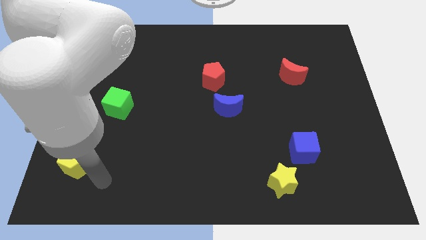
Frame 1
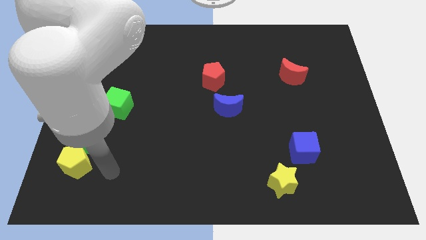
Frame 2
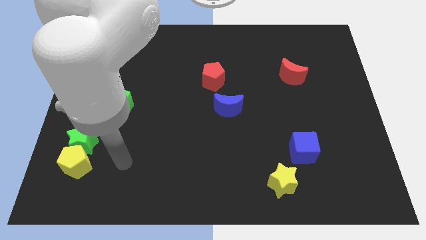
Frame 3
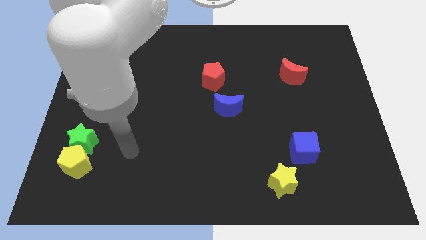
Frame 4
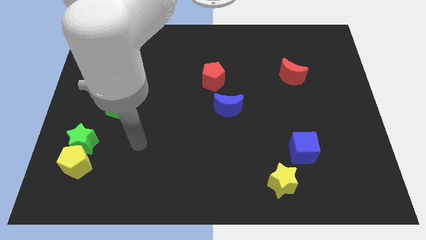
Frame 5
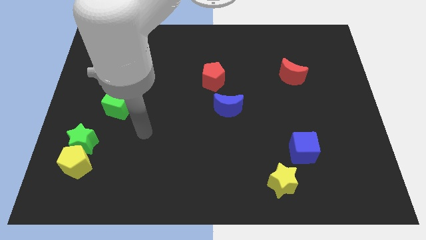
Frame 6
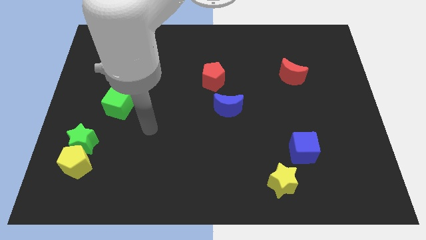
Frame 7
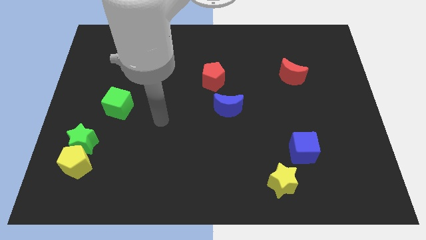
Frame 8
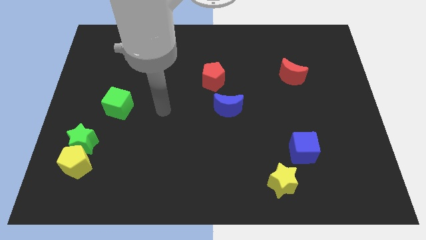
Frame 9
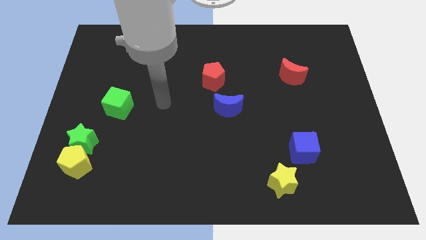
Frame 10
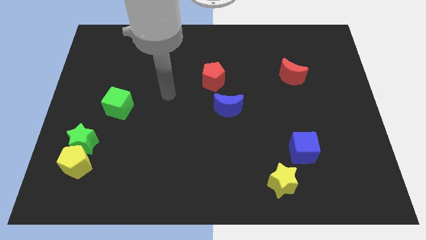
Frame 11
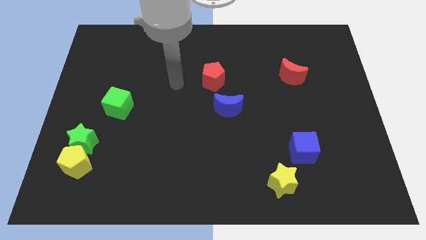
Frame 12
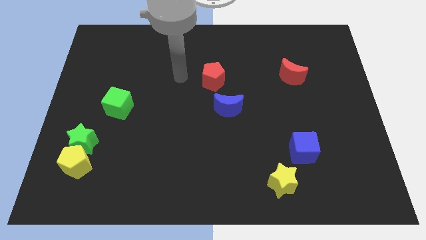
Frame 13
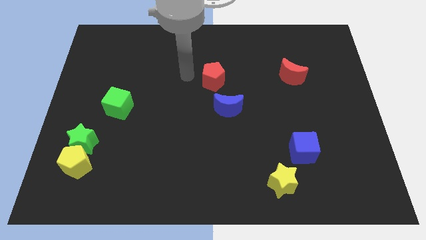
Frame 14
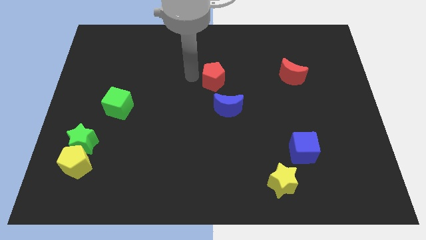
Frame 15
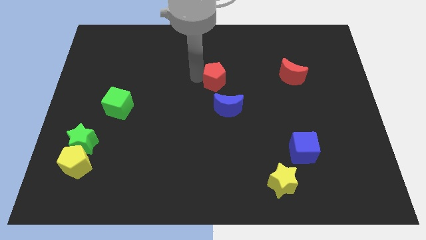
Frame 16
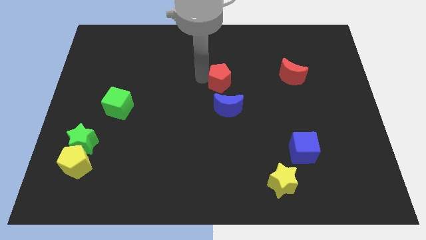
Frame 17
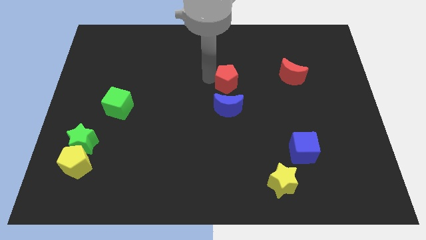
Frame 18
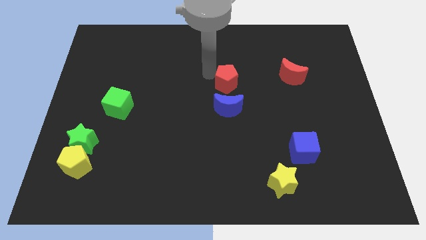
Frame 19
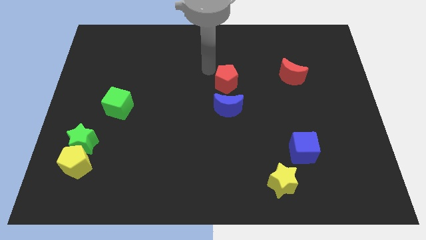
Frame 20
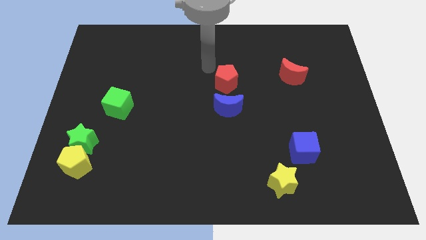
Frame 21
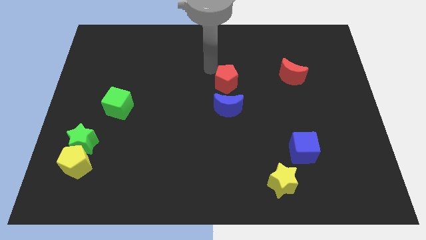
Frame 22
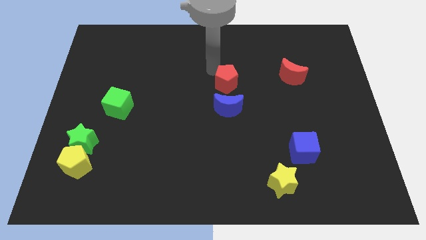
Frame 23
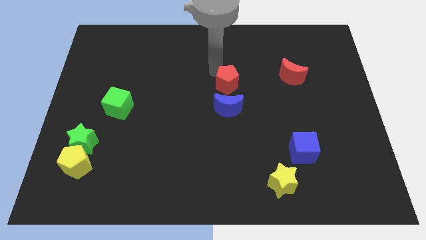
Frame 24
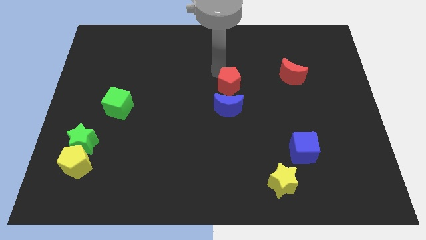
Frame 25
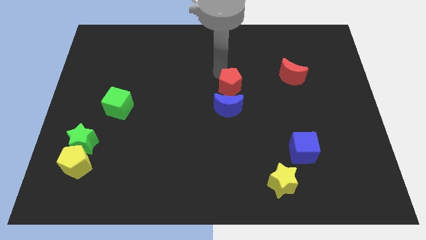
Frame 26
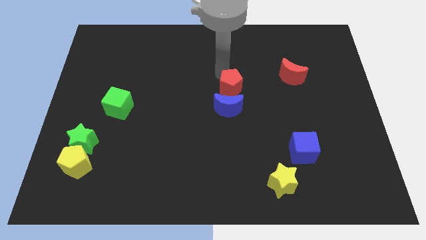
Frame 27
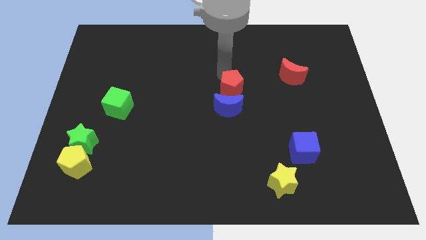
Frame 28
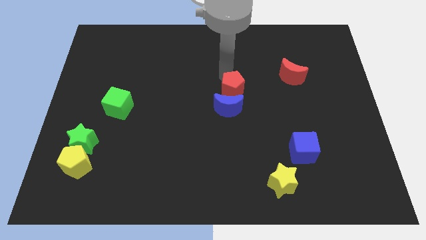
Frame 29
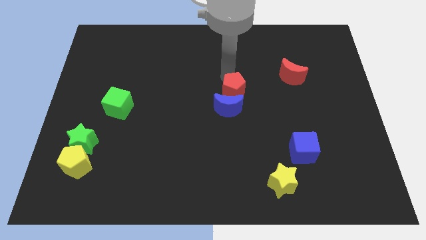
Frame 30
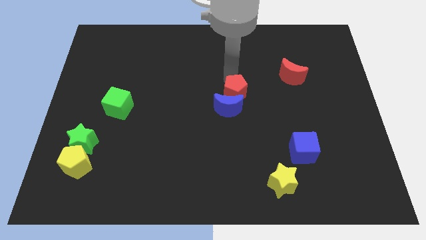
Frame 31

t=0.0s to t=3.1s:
slightly move the red pentagon diagonally downwards and right

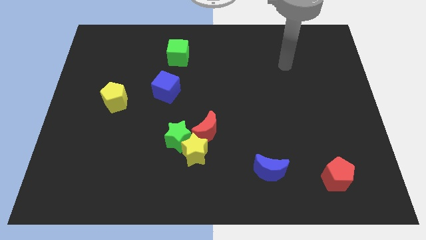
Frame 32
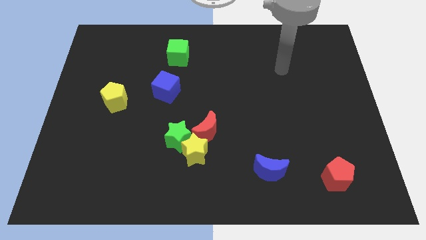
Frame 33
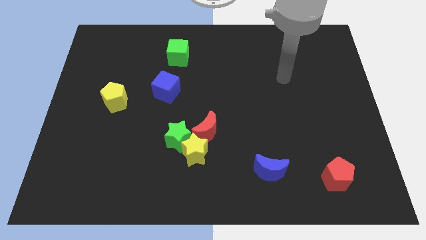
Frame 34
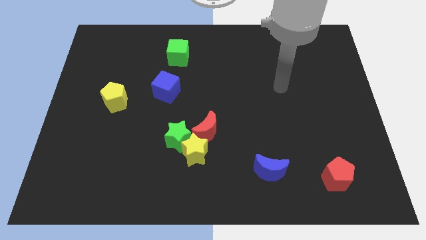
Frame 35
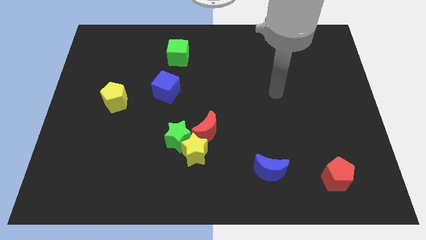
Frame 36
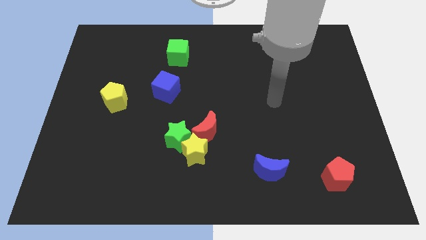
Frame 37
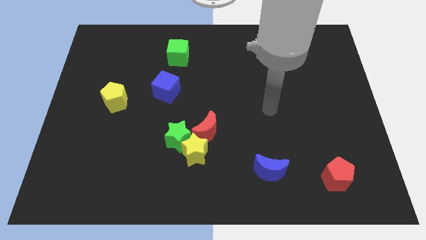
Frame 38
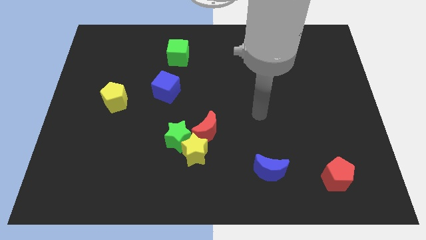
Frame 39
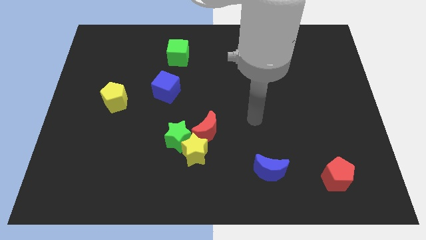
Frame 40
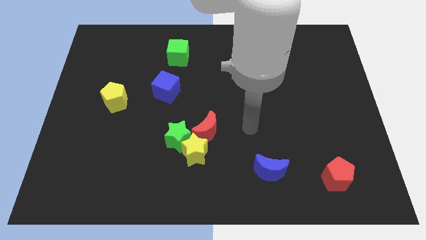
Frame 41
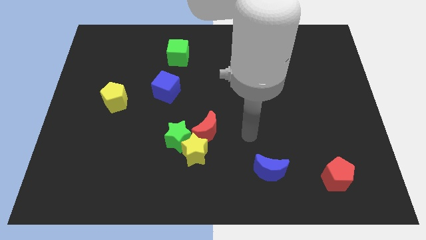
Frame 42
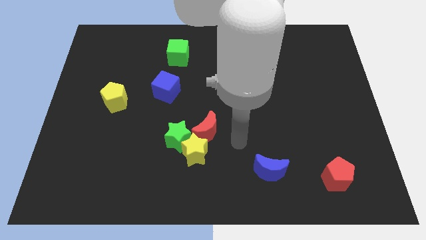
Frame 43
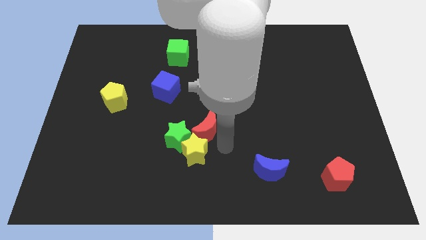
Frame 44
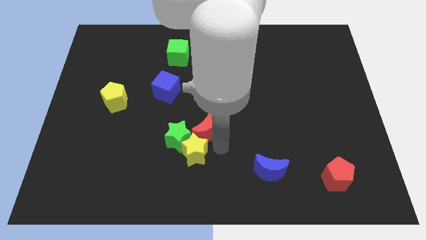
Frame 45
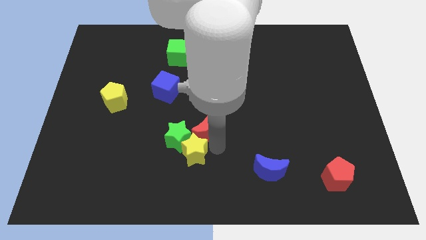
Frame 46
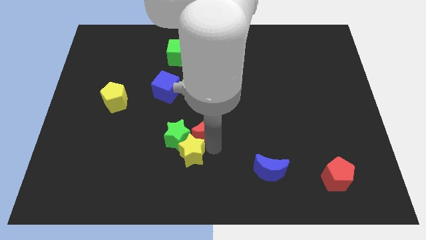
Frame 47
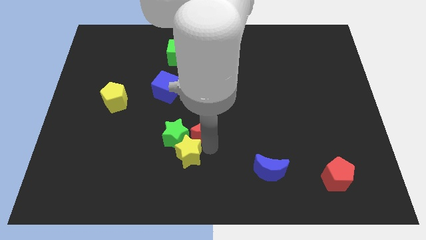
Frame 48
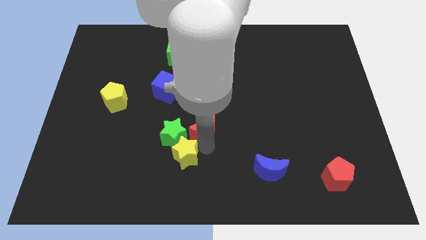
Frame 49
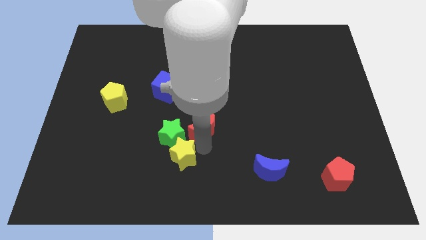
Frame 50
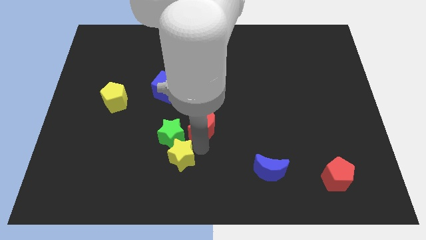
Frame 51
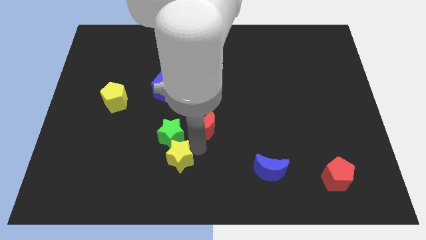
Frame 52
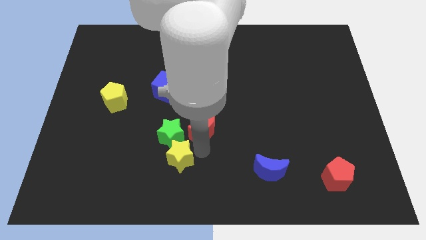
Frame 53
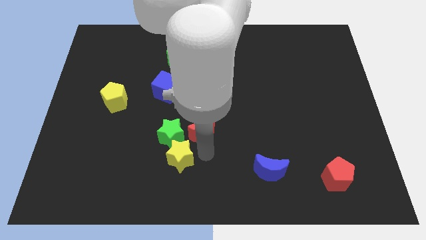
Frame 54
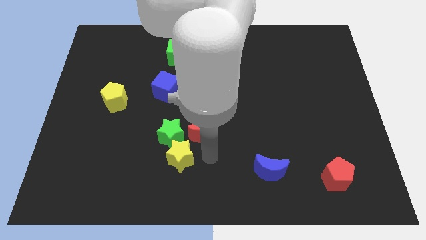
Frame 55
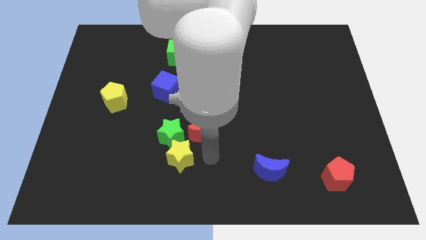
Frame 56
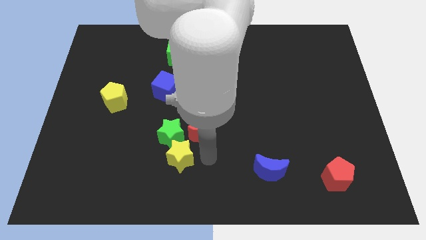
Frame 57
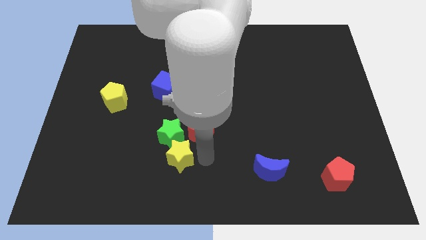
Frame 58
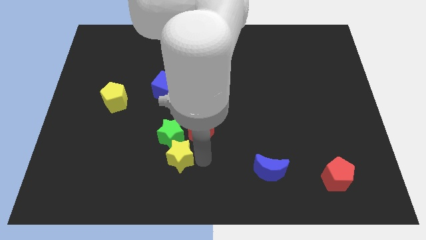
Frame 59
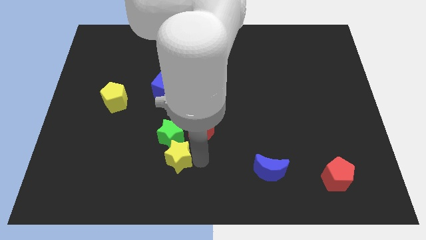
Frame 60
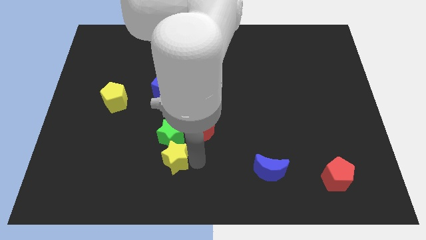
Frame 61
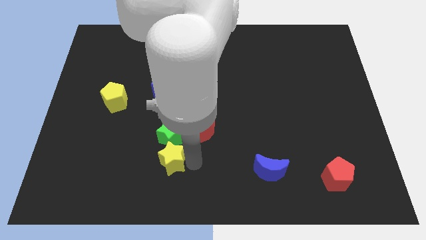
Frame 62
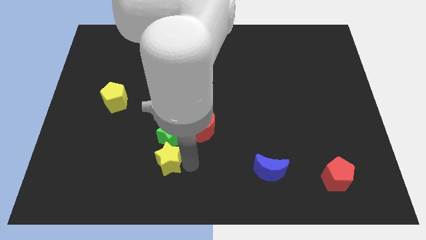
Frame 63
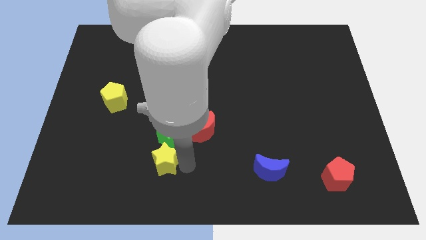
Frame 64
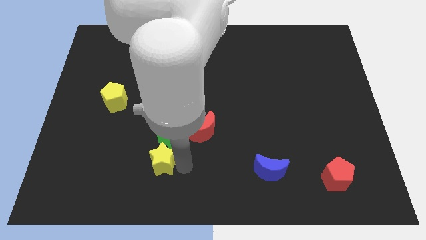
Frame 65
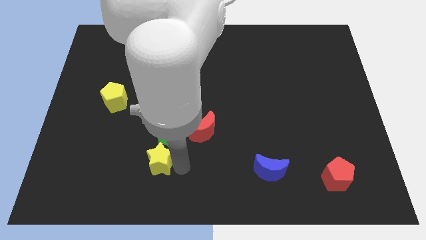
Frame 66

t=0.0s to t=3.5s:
push the yellow star to the left somewhat

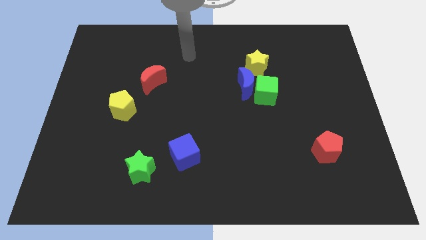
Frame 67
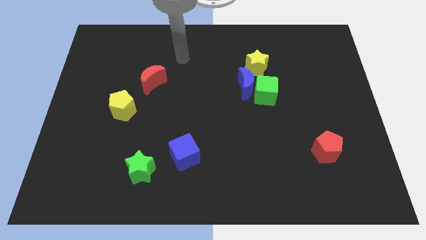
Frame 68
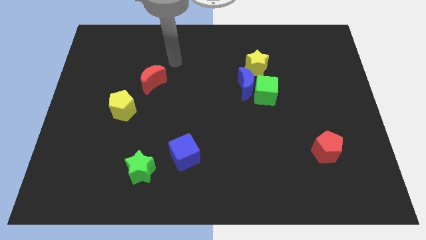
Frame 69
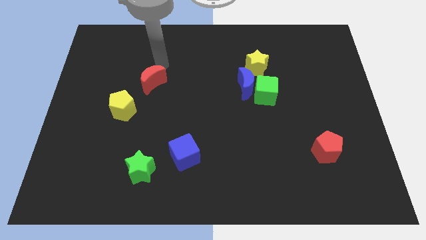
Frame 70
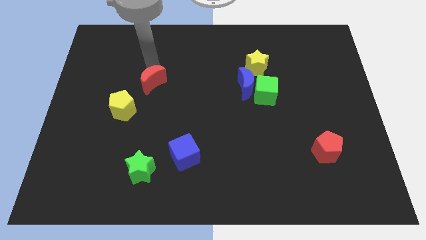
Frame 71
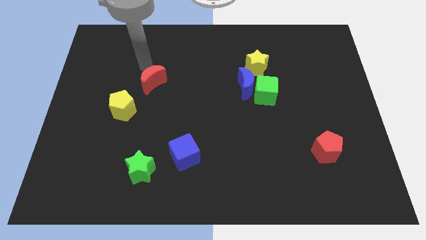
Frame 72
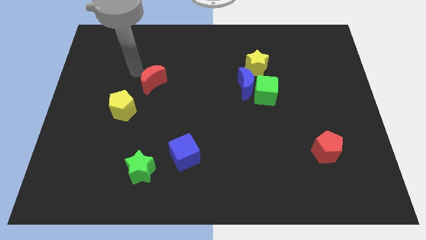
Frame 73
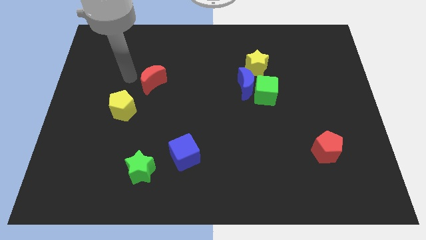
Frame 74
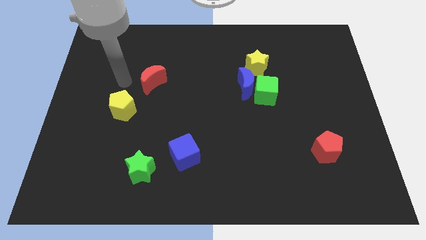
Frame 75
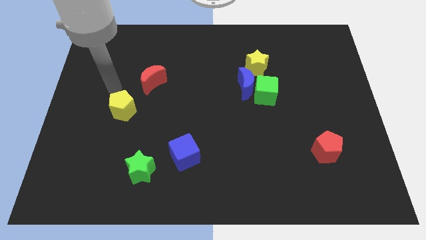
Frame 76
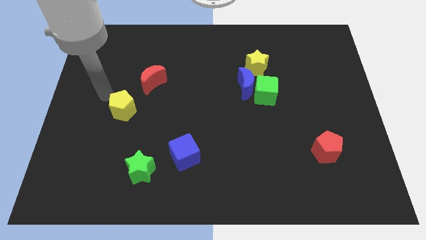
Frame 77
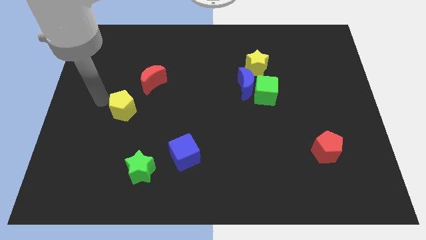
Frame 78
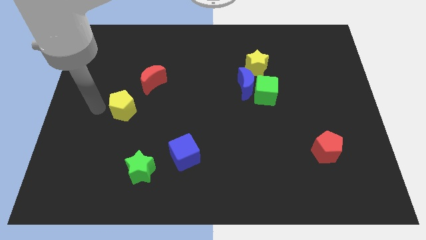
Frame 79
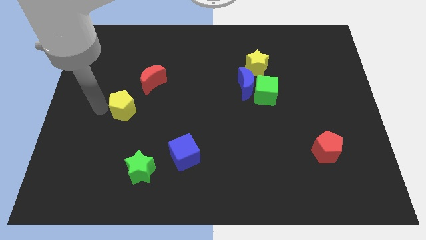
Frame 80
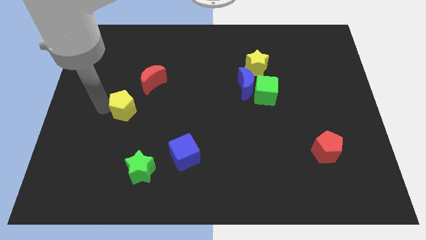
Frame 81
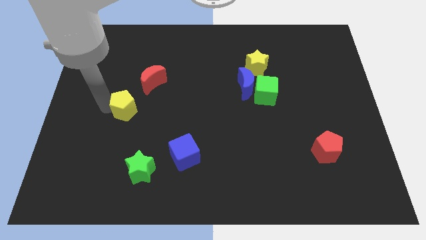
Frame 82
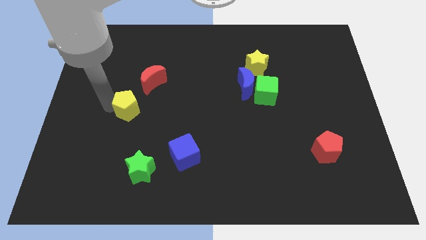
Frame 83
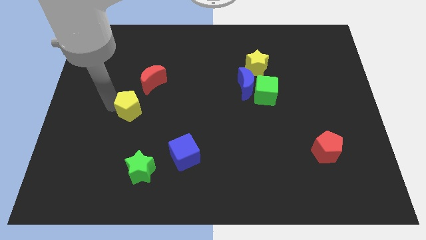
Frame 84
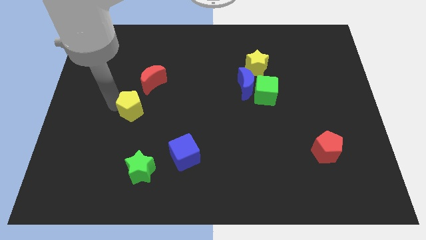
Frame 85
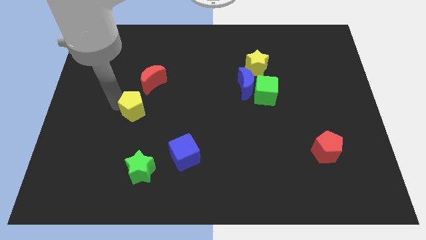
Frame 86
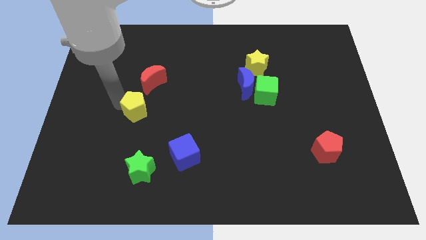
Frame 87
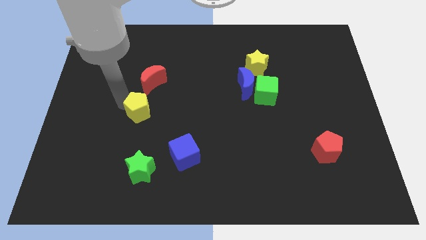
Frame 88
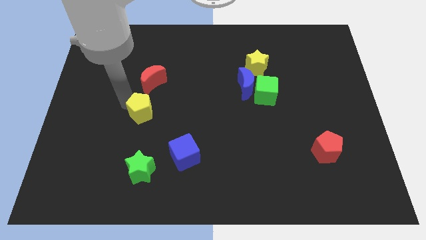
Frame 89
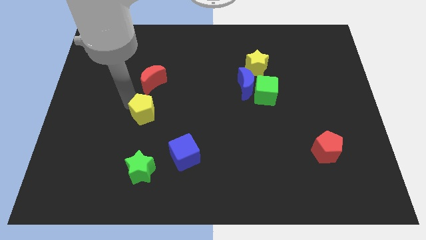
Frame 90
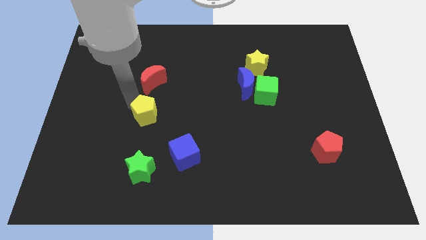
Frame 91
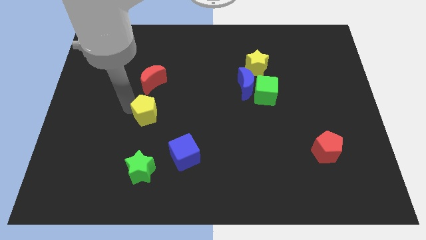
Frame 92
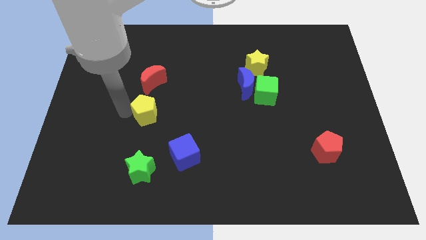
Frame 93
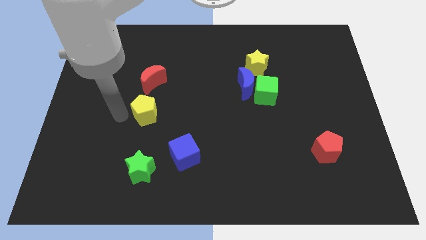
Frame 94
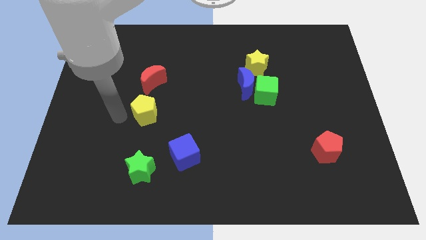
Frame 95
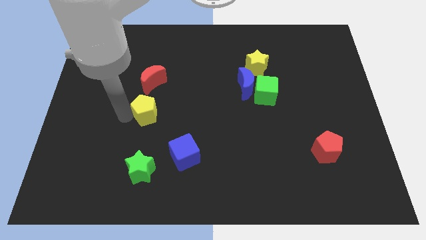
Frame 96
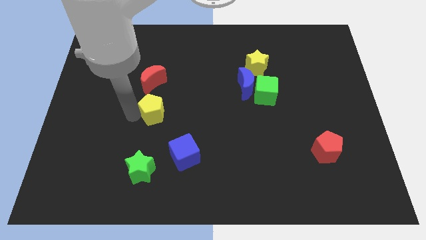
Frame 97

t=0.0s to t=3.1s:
slightly move the yellow pentagon to the right
